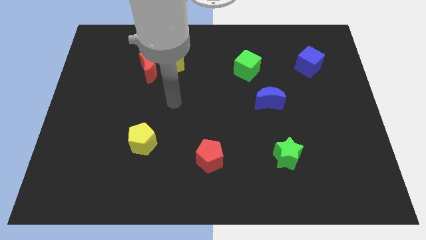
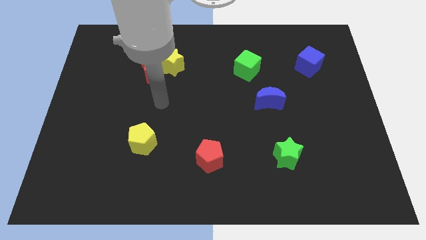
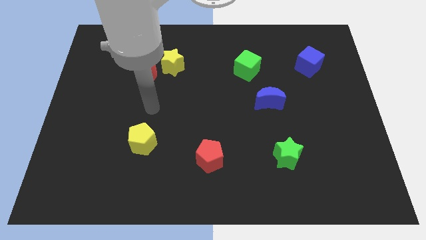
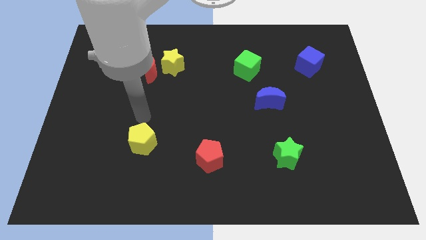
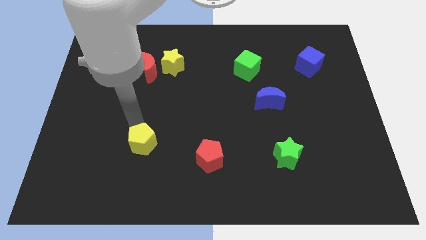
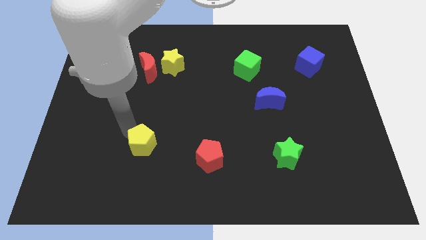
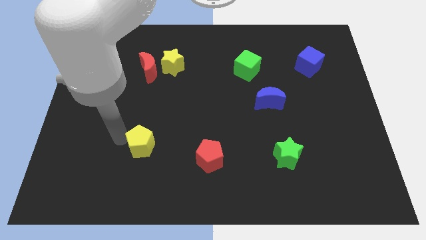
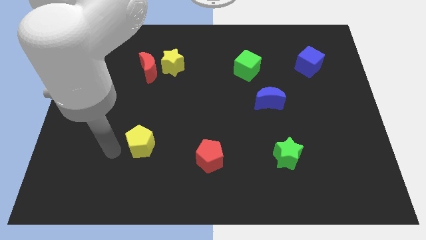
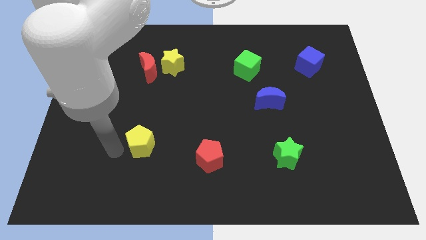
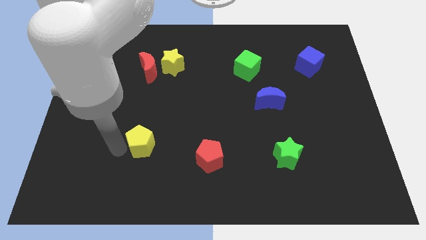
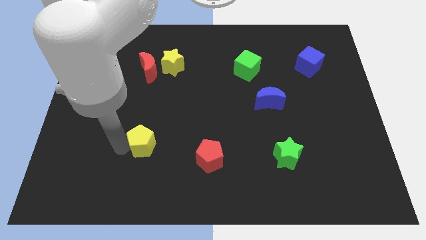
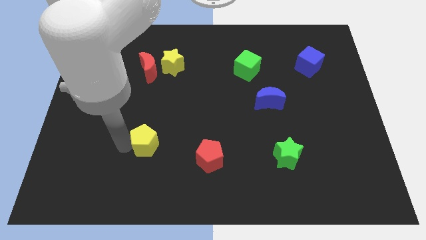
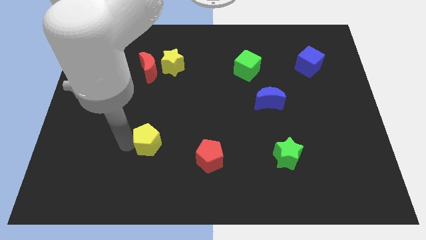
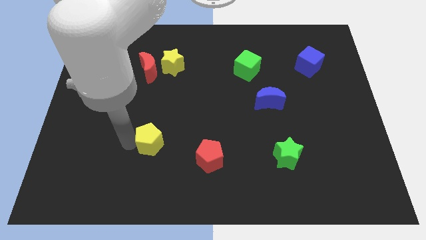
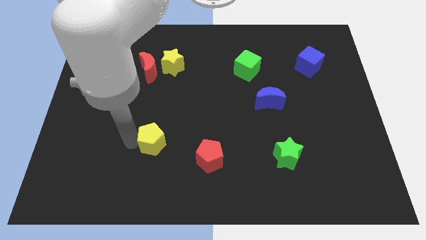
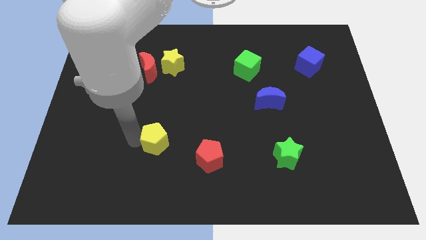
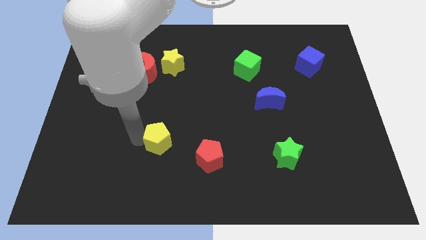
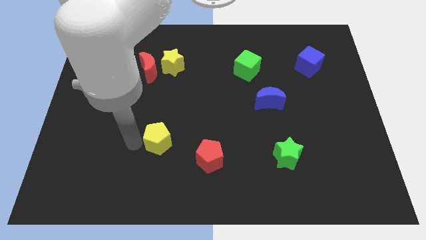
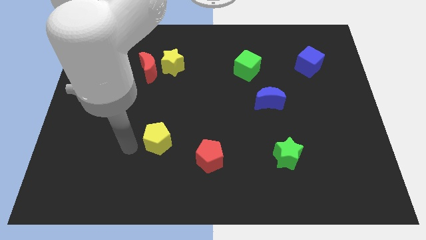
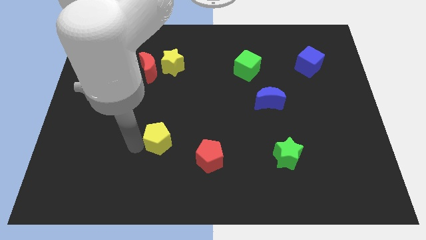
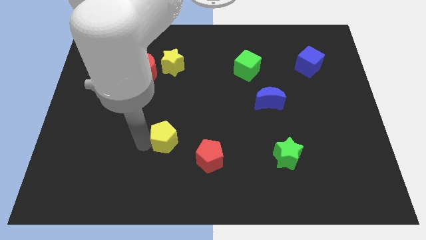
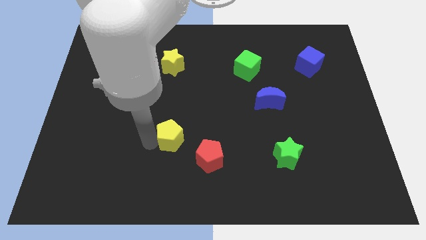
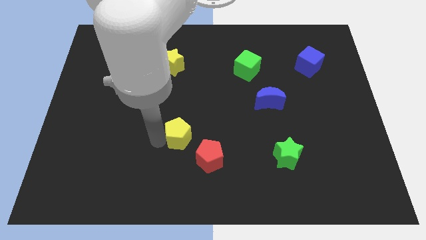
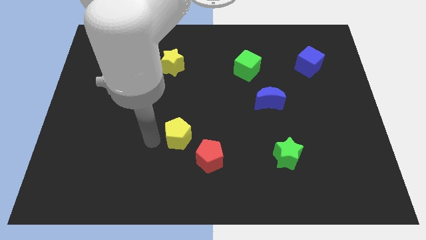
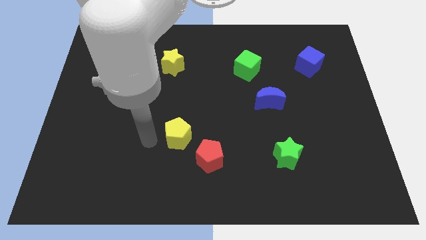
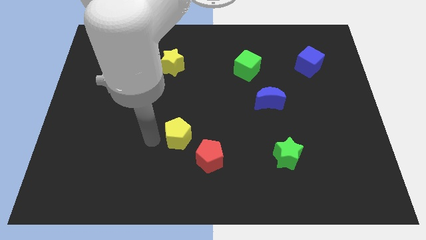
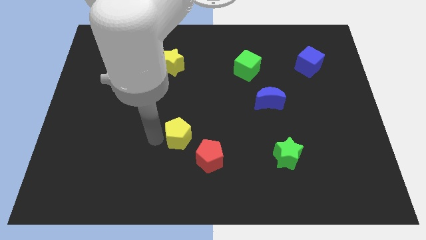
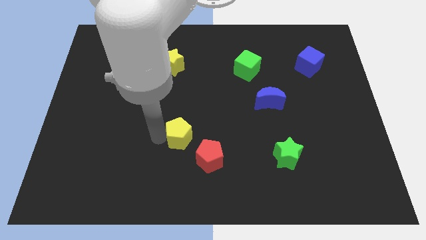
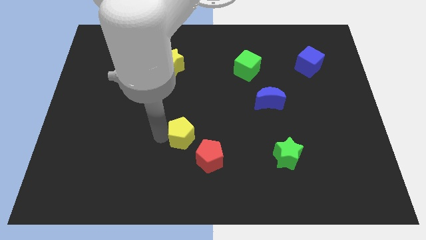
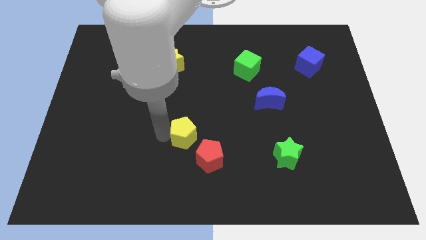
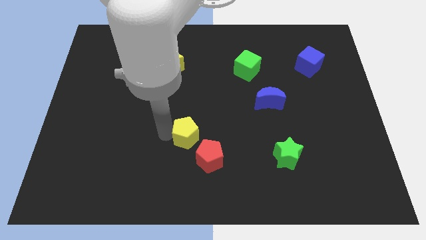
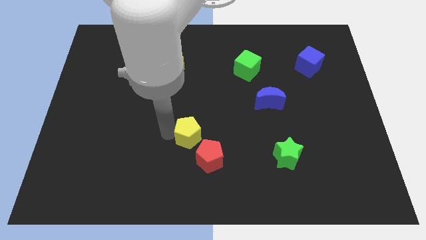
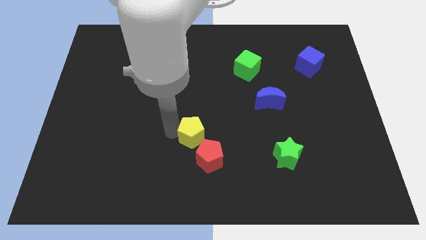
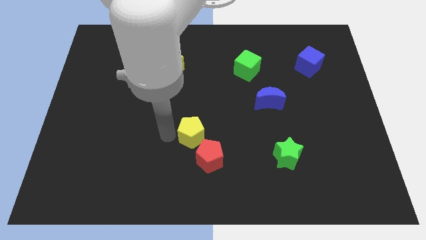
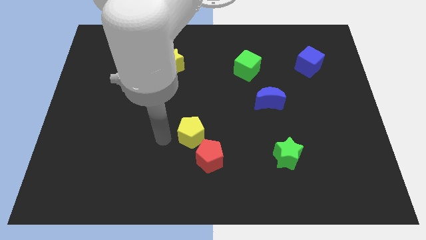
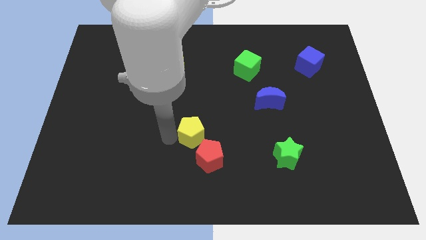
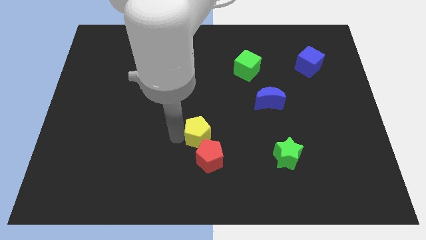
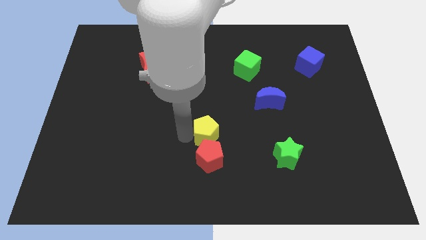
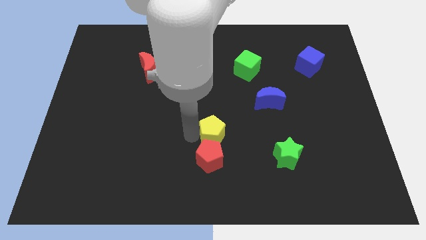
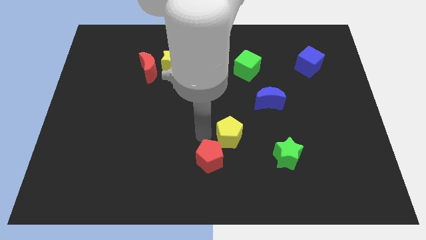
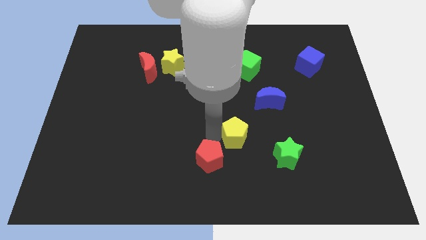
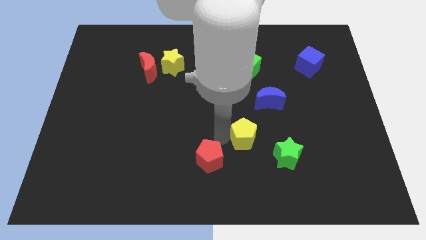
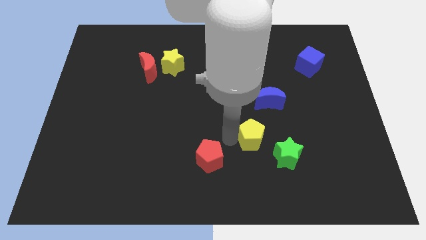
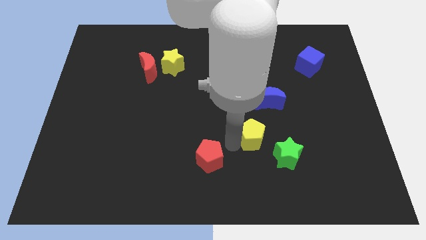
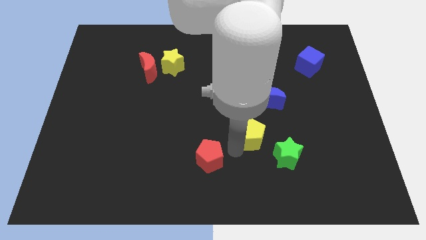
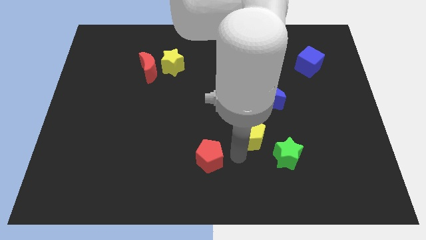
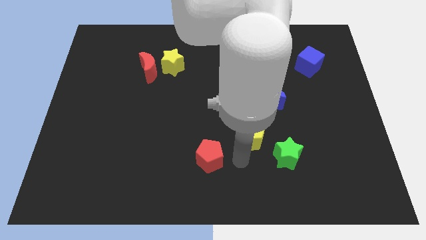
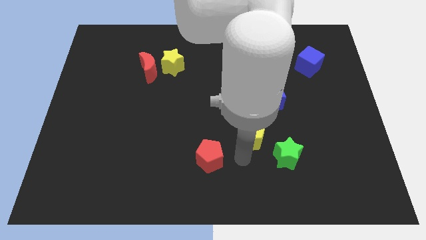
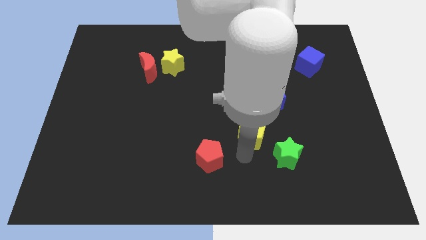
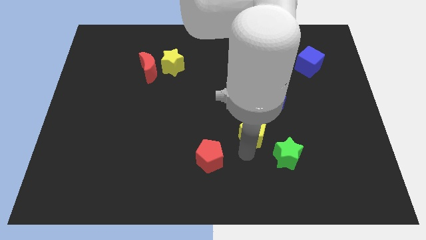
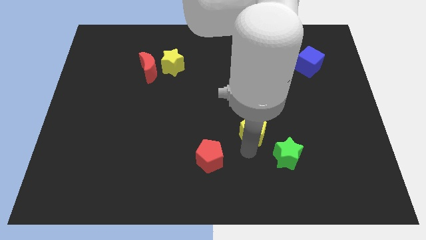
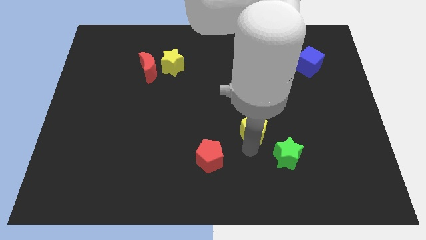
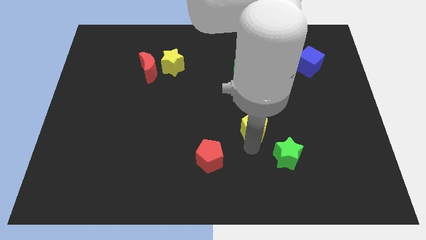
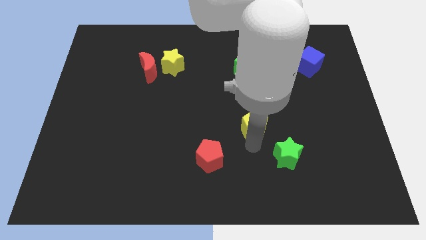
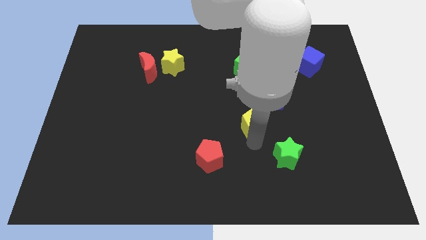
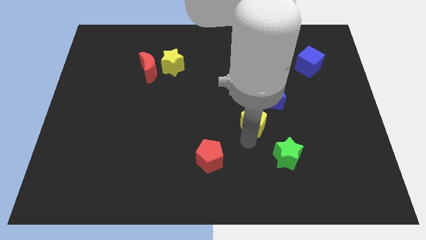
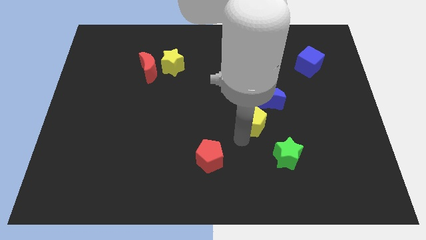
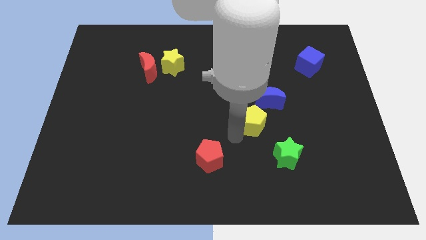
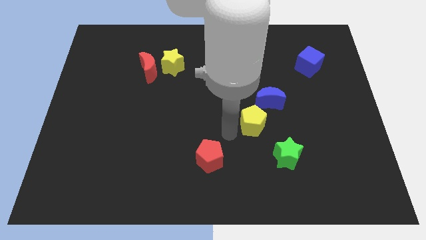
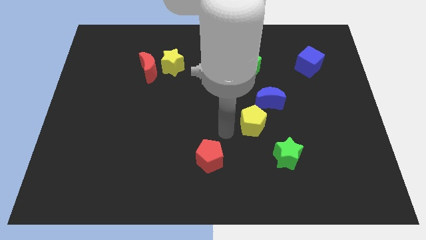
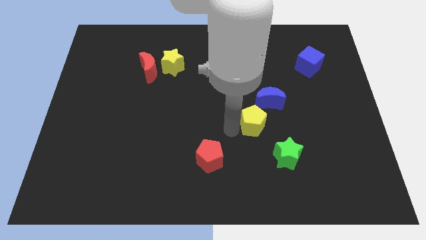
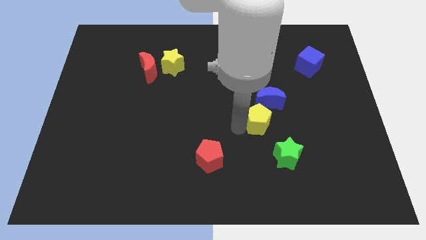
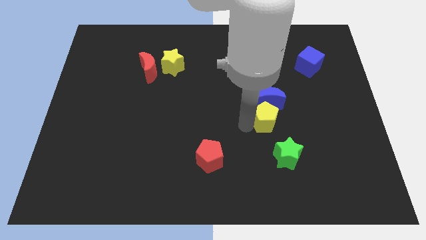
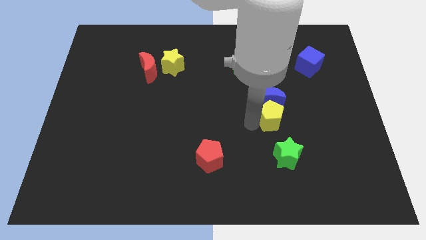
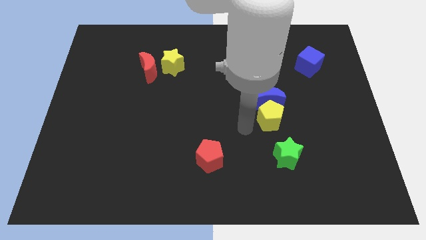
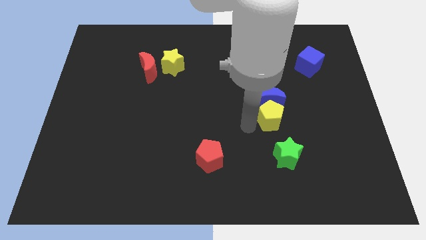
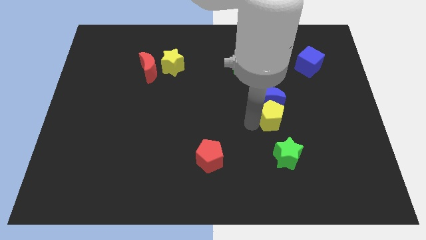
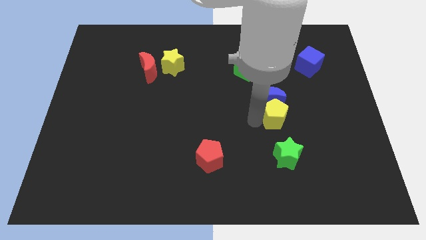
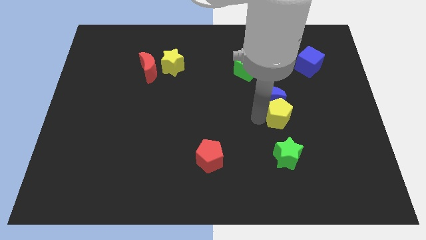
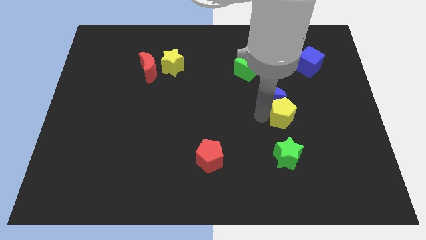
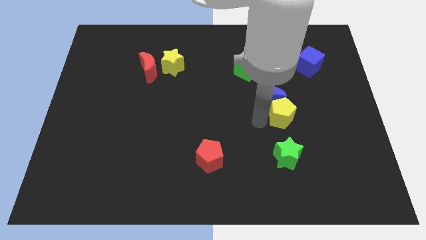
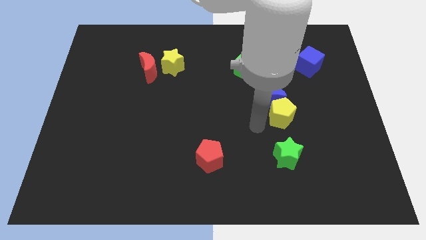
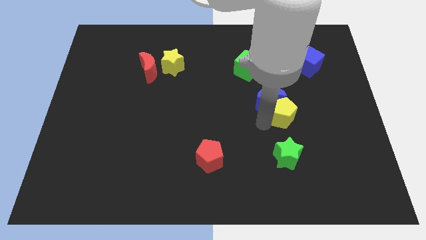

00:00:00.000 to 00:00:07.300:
push the yellow pentagon just right of the blue moon
